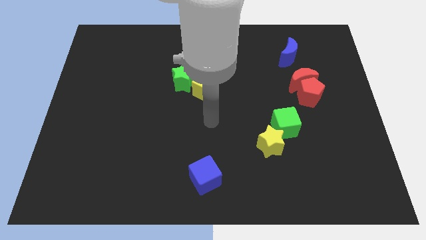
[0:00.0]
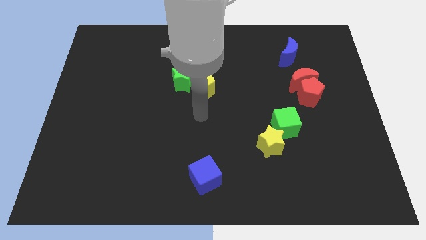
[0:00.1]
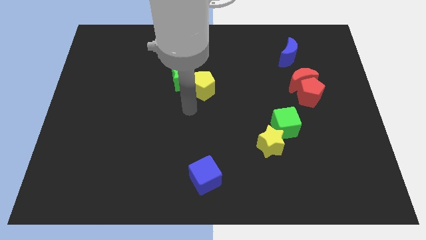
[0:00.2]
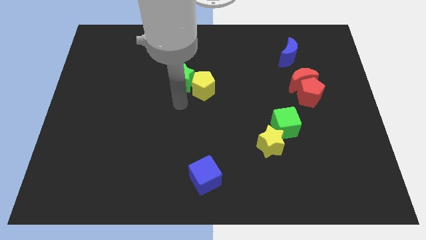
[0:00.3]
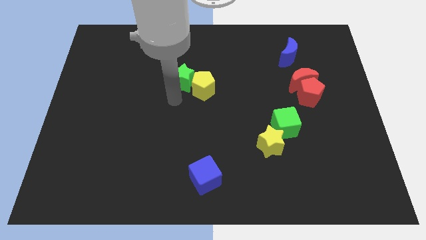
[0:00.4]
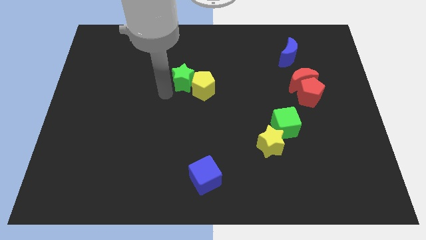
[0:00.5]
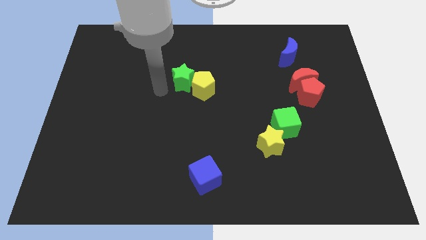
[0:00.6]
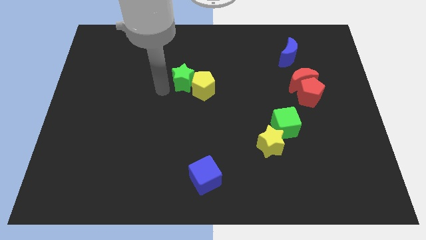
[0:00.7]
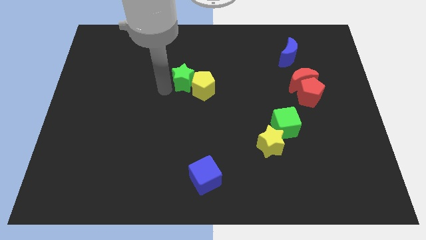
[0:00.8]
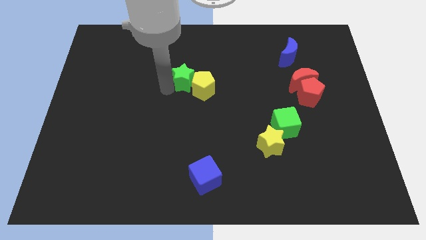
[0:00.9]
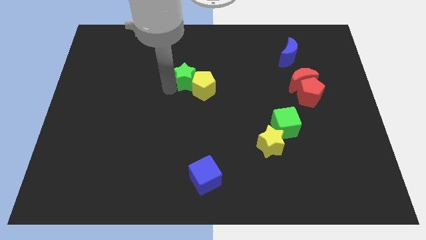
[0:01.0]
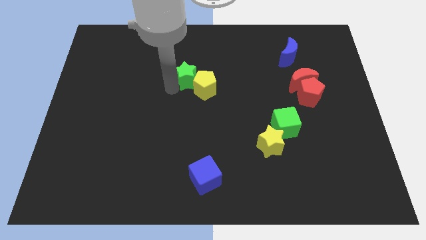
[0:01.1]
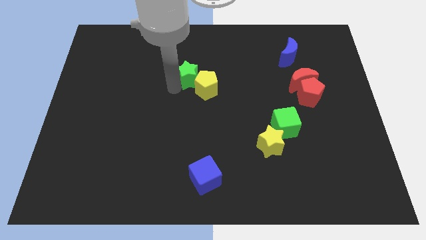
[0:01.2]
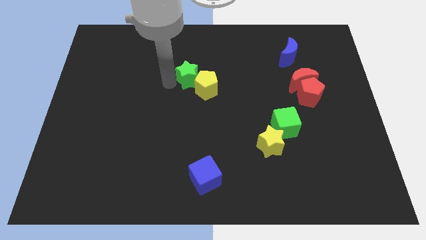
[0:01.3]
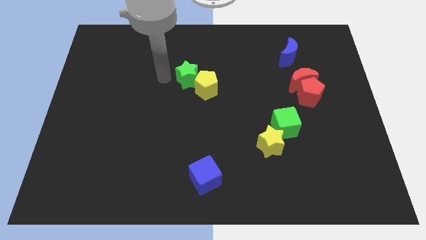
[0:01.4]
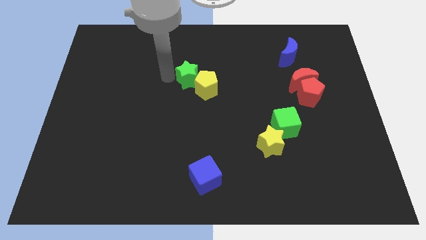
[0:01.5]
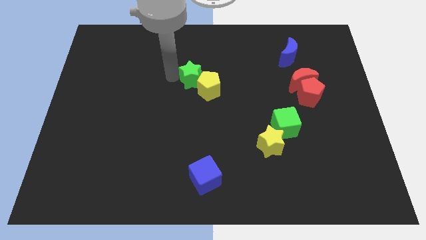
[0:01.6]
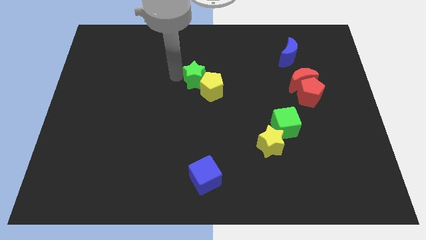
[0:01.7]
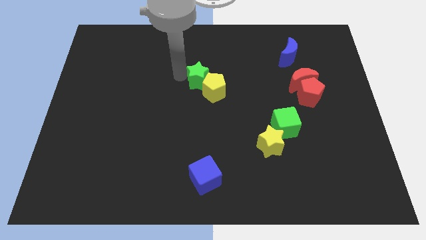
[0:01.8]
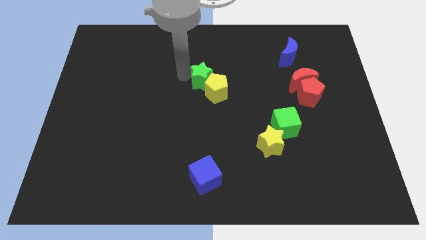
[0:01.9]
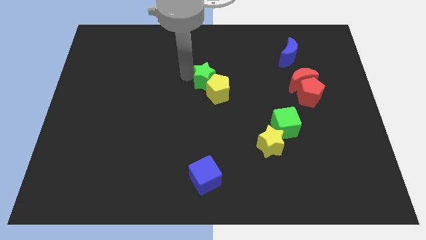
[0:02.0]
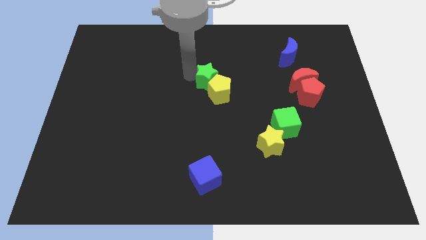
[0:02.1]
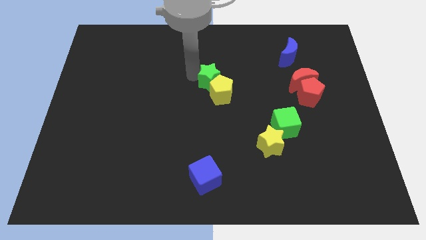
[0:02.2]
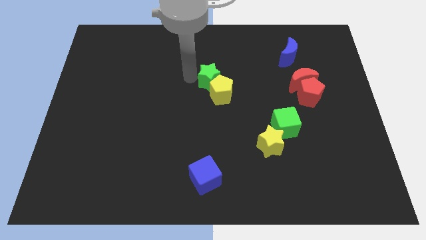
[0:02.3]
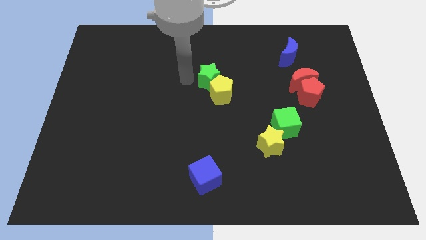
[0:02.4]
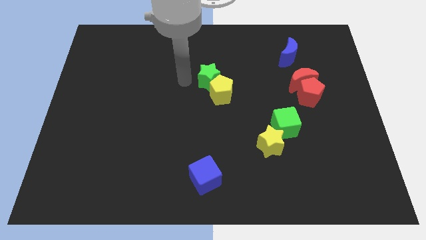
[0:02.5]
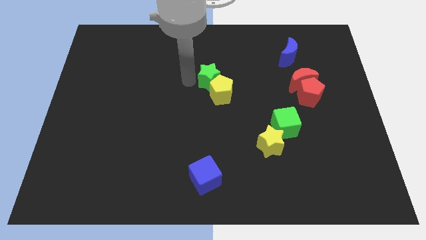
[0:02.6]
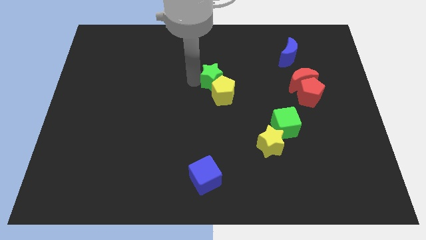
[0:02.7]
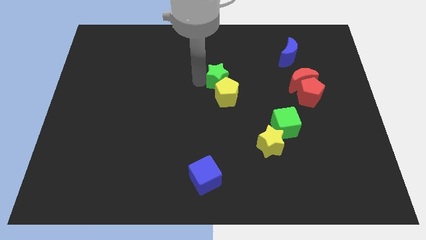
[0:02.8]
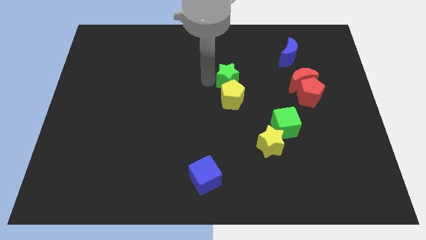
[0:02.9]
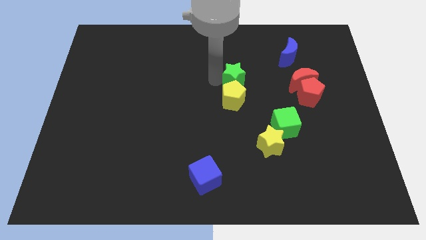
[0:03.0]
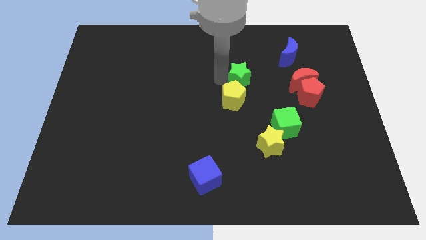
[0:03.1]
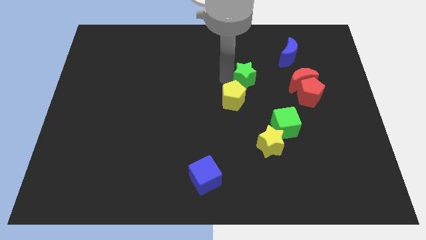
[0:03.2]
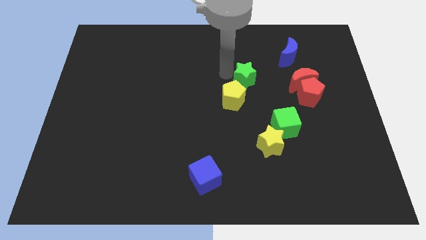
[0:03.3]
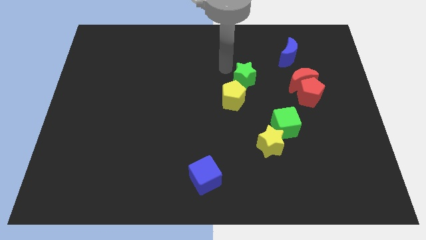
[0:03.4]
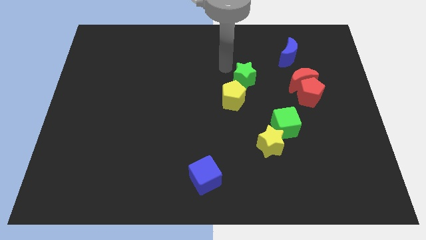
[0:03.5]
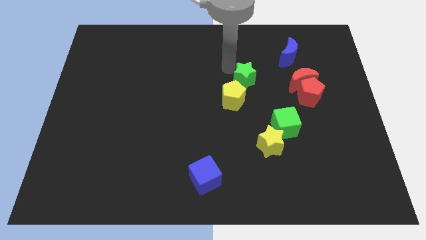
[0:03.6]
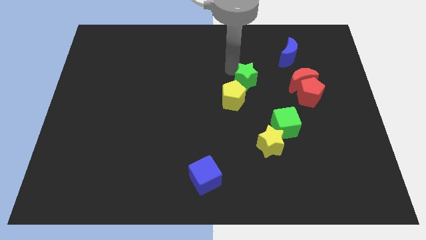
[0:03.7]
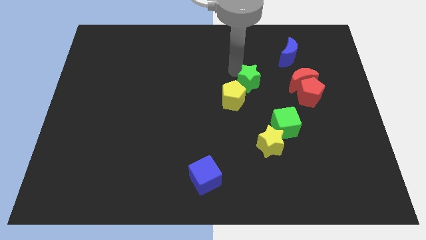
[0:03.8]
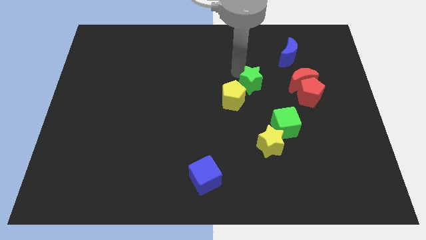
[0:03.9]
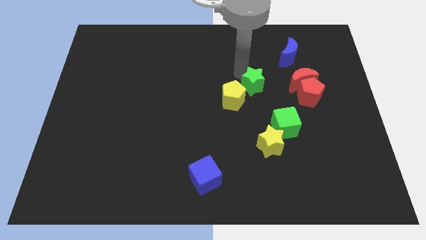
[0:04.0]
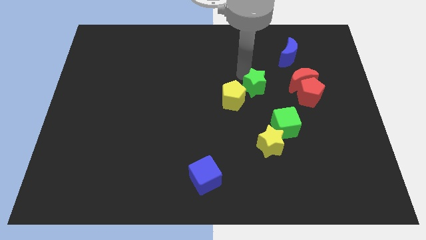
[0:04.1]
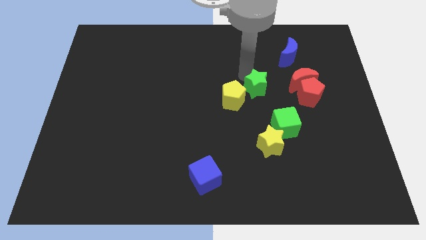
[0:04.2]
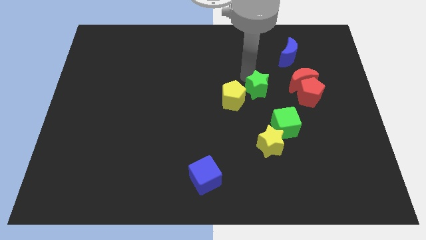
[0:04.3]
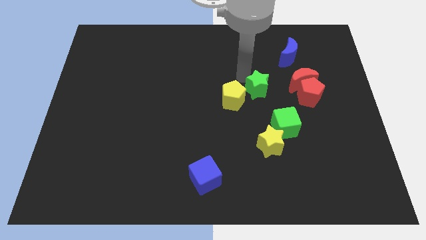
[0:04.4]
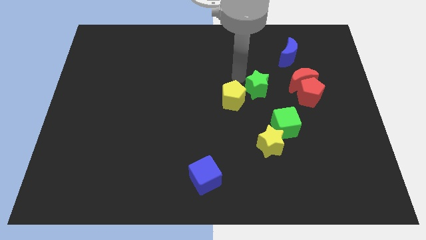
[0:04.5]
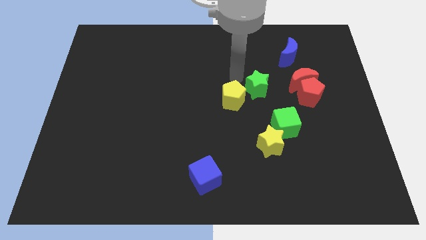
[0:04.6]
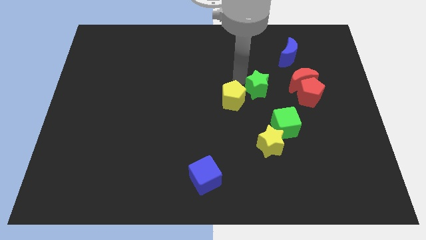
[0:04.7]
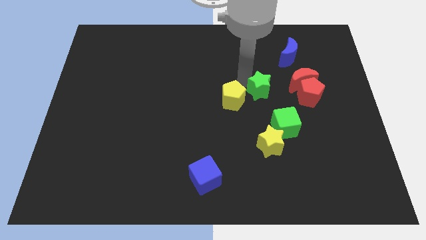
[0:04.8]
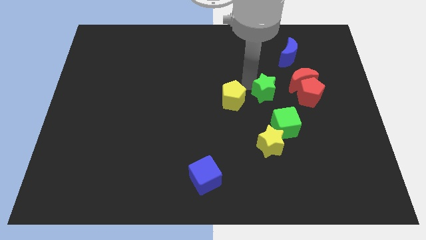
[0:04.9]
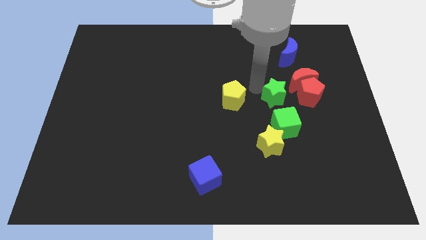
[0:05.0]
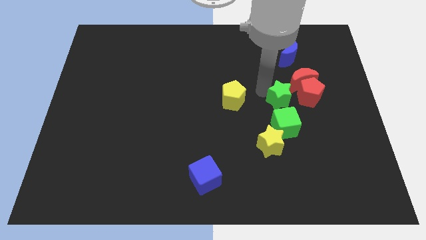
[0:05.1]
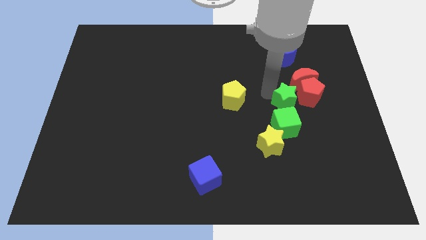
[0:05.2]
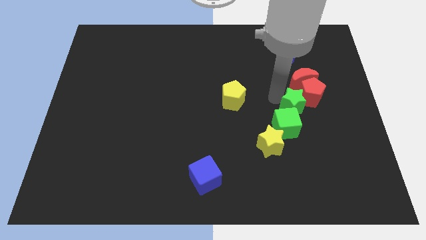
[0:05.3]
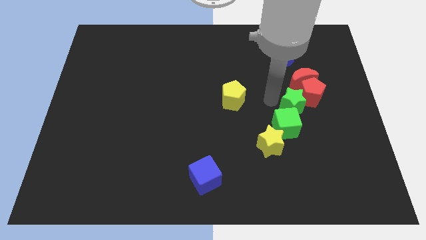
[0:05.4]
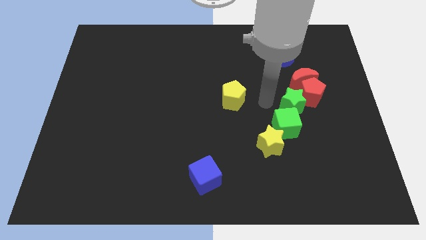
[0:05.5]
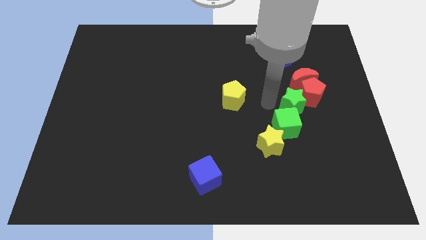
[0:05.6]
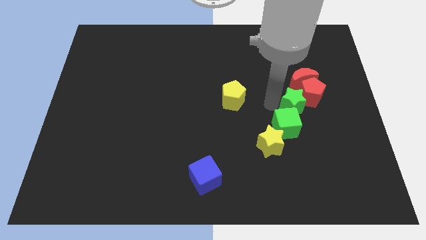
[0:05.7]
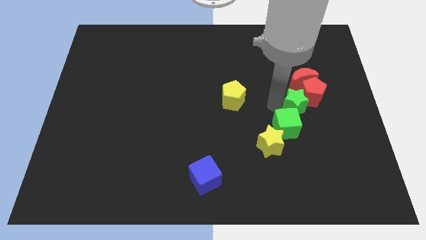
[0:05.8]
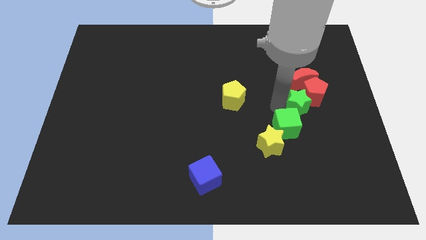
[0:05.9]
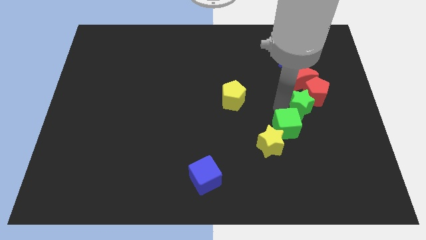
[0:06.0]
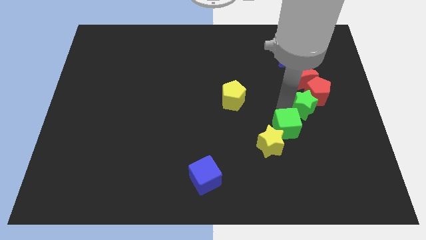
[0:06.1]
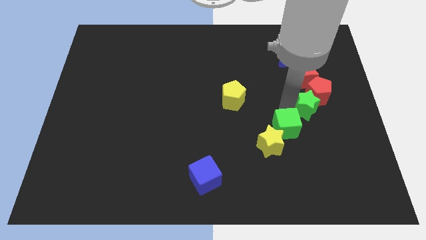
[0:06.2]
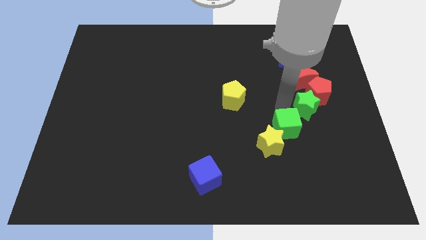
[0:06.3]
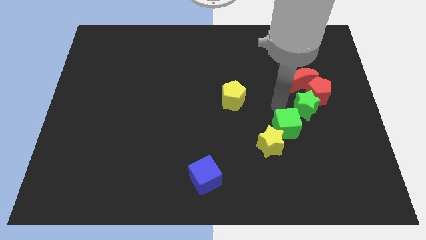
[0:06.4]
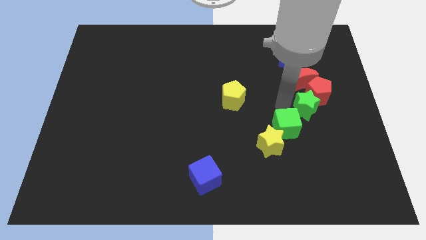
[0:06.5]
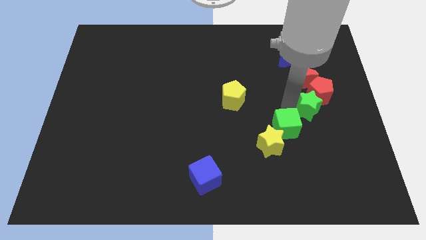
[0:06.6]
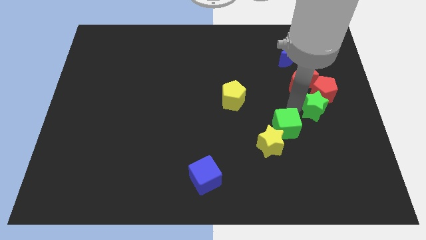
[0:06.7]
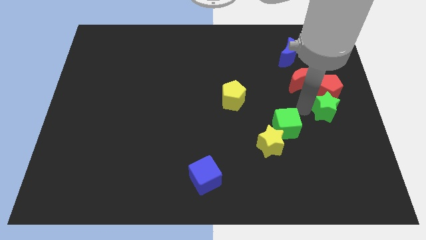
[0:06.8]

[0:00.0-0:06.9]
move the green star to the right side of the board
